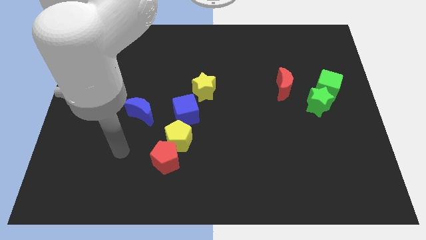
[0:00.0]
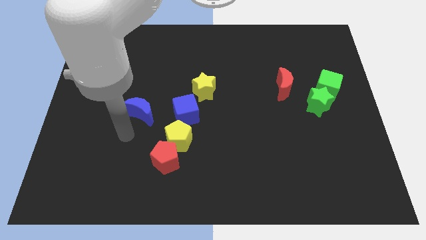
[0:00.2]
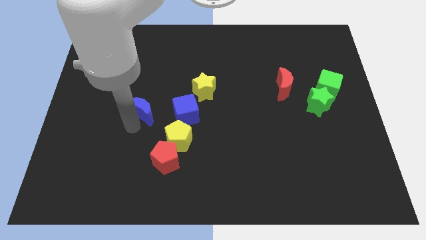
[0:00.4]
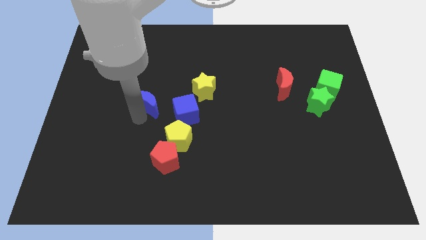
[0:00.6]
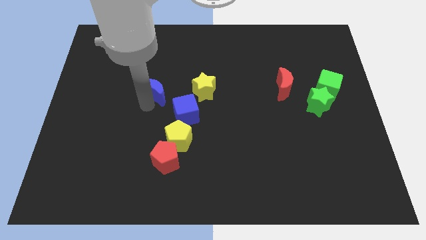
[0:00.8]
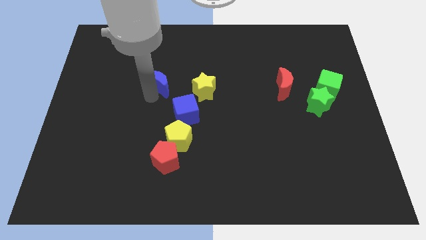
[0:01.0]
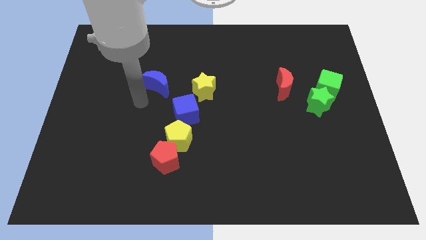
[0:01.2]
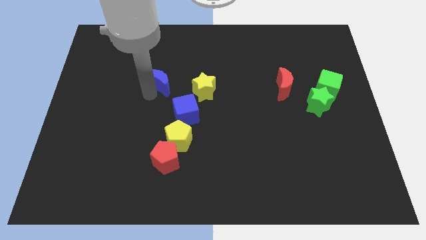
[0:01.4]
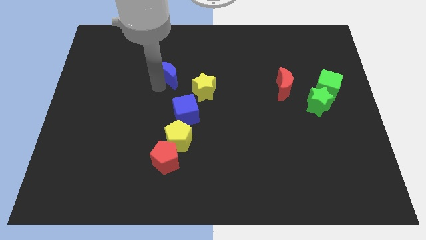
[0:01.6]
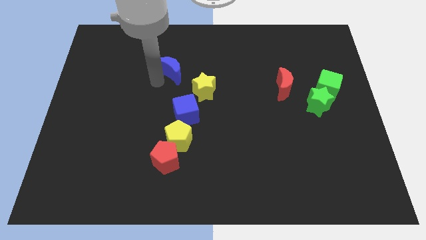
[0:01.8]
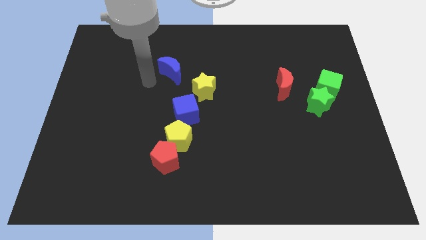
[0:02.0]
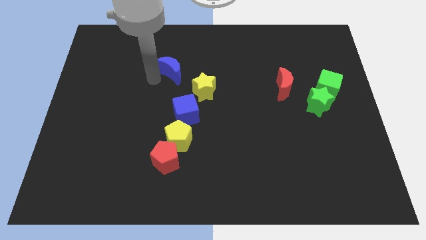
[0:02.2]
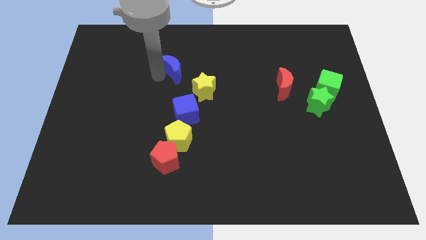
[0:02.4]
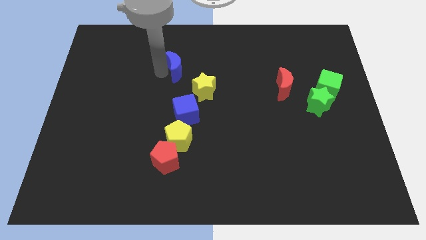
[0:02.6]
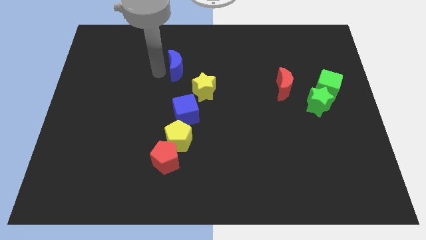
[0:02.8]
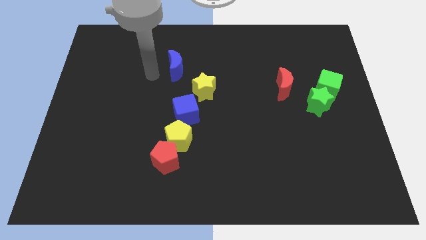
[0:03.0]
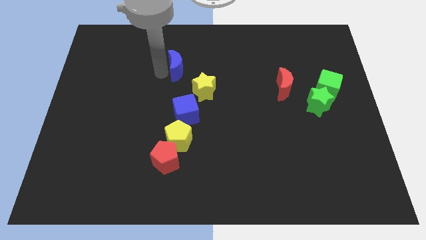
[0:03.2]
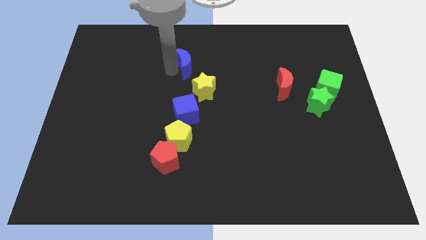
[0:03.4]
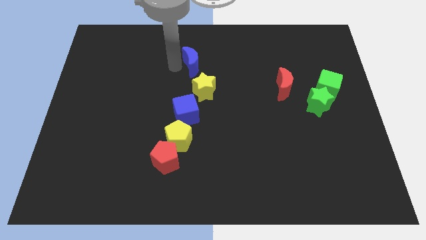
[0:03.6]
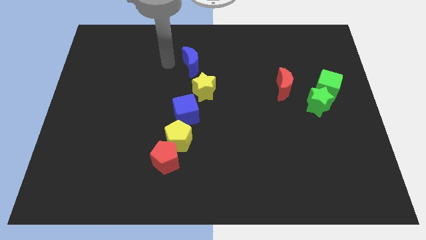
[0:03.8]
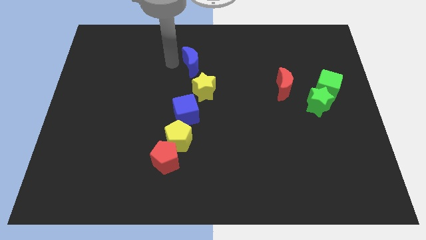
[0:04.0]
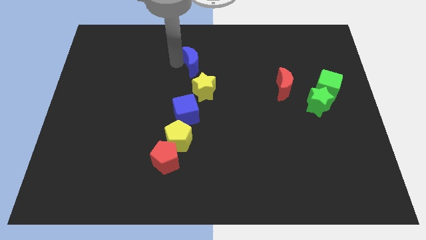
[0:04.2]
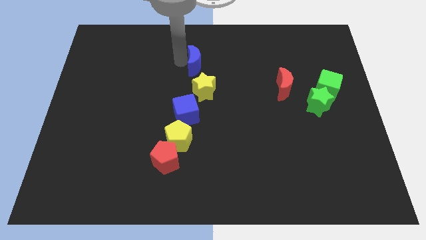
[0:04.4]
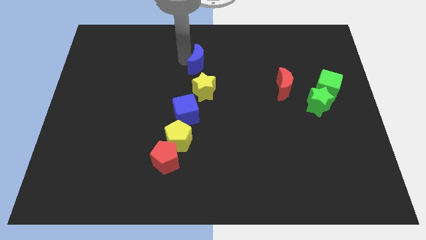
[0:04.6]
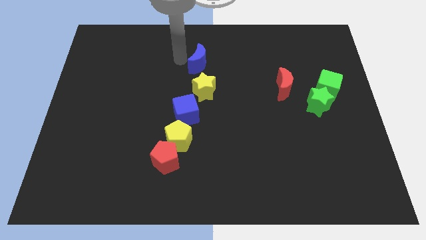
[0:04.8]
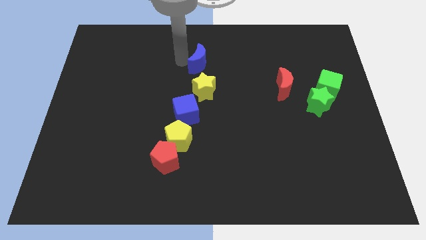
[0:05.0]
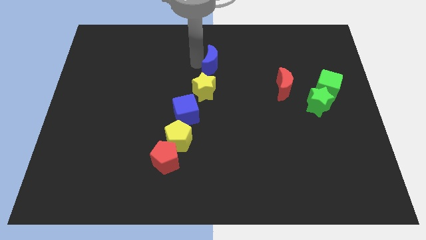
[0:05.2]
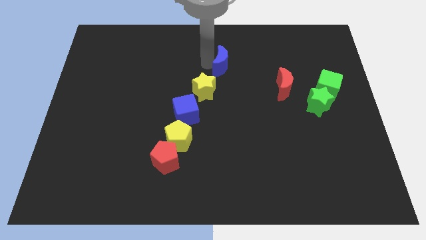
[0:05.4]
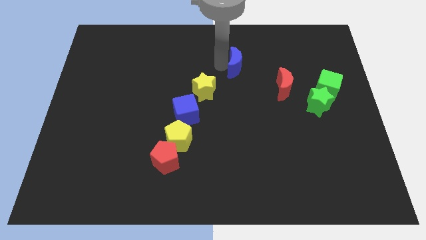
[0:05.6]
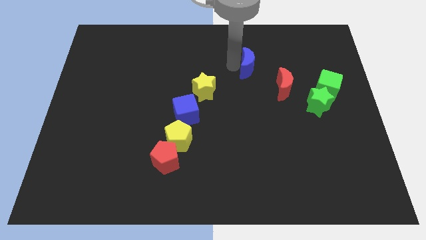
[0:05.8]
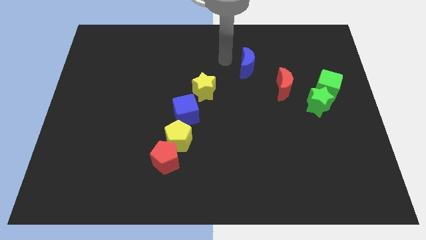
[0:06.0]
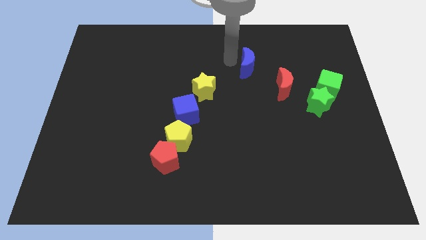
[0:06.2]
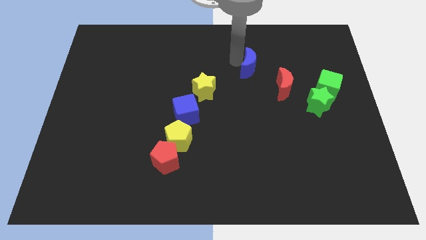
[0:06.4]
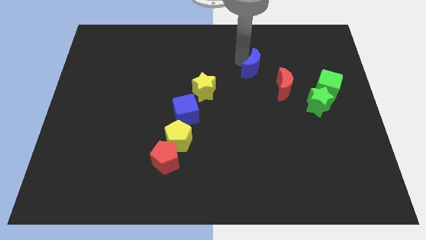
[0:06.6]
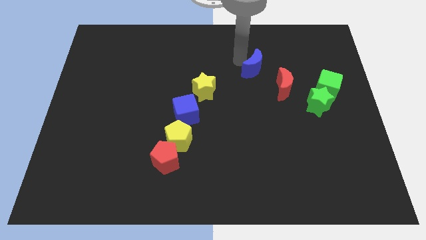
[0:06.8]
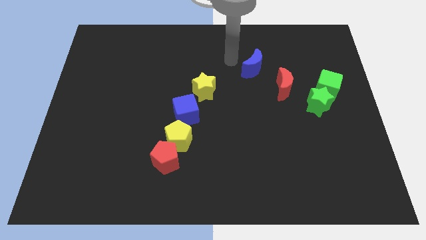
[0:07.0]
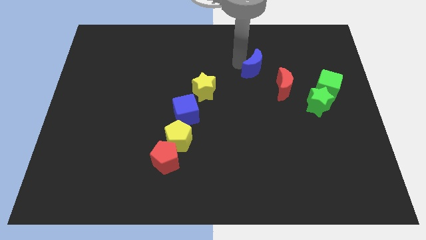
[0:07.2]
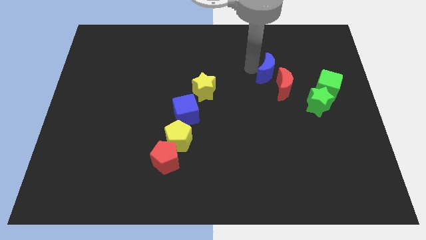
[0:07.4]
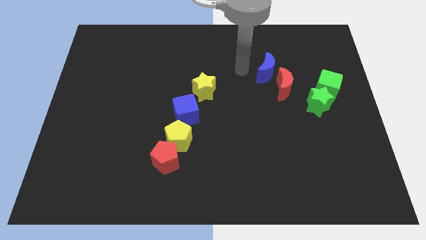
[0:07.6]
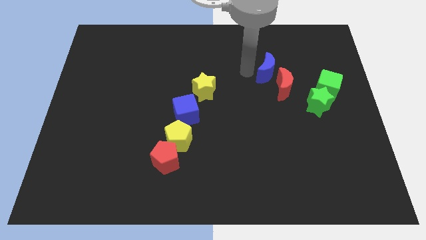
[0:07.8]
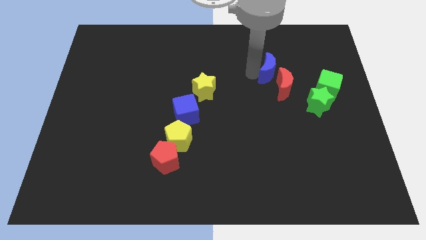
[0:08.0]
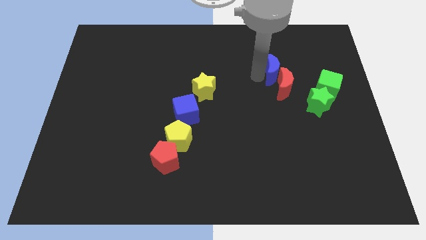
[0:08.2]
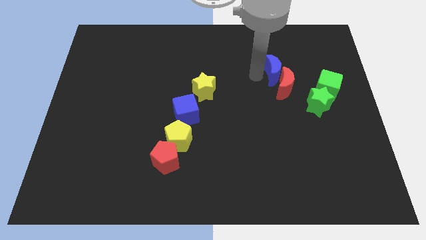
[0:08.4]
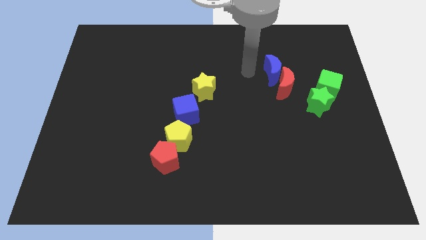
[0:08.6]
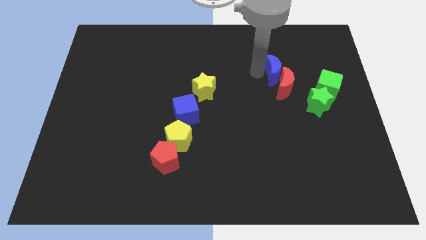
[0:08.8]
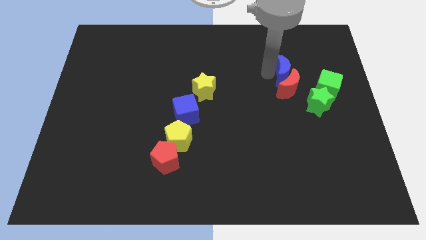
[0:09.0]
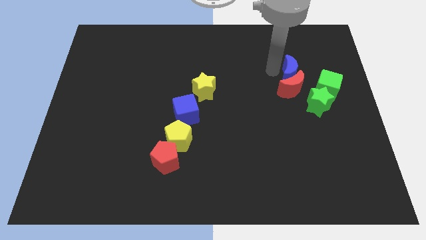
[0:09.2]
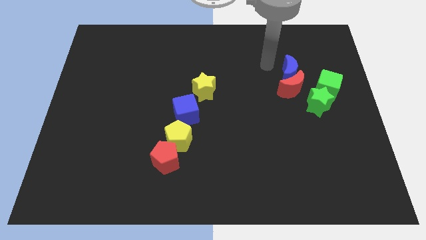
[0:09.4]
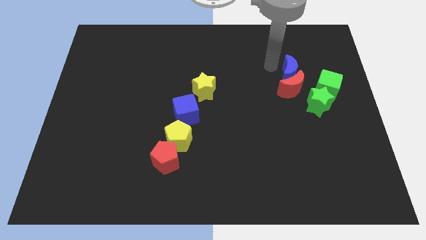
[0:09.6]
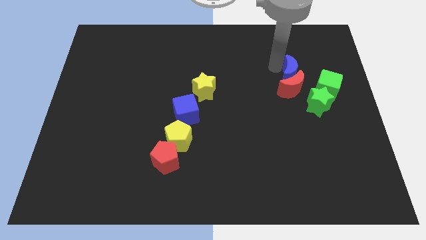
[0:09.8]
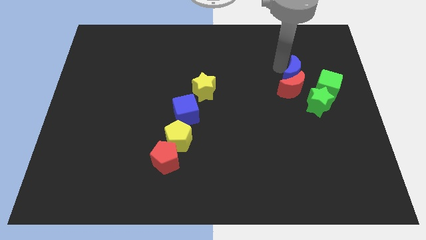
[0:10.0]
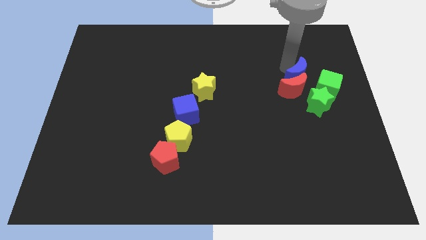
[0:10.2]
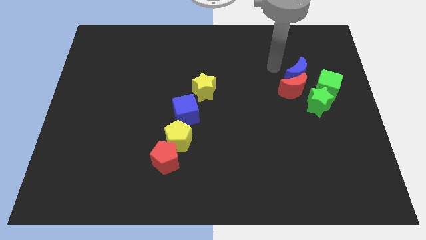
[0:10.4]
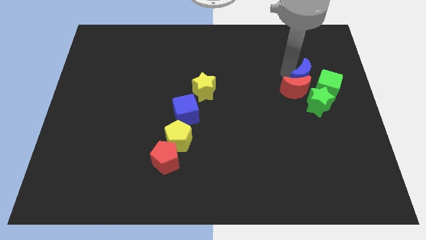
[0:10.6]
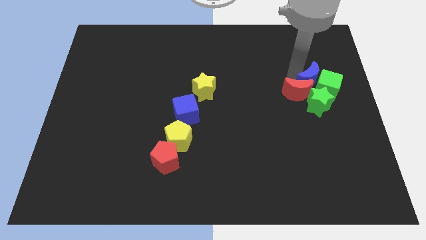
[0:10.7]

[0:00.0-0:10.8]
put the blue moon towards the green cube

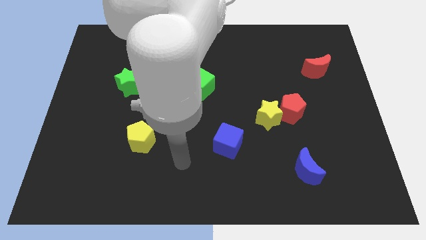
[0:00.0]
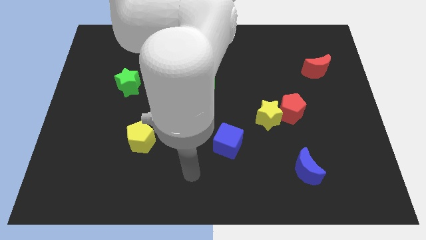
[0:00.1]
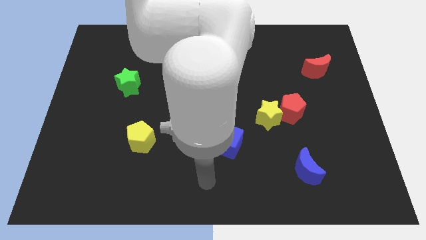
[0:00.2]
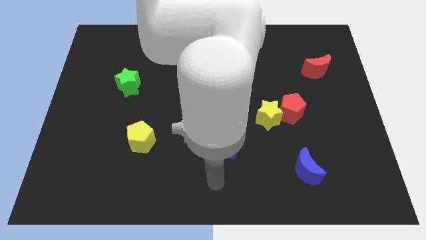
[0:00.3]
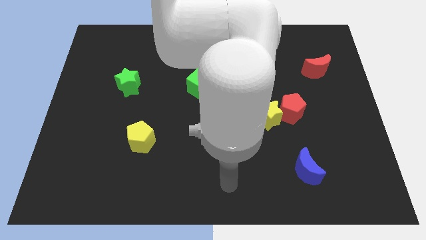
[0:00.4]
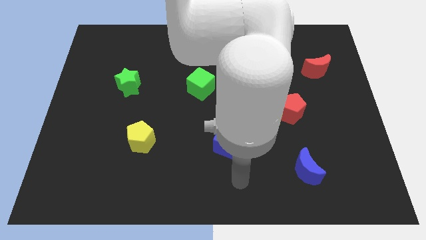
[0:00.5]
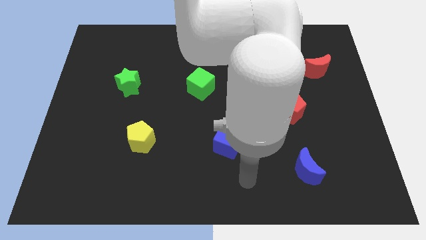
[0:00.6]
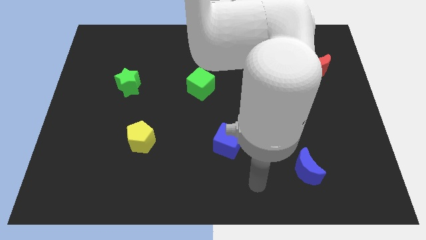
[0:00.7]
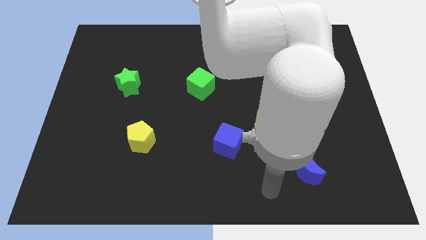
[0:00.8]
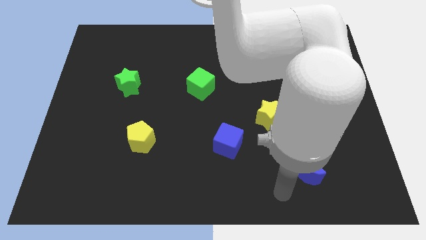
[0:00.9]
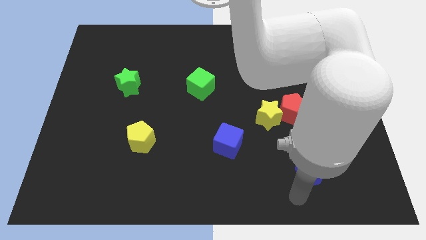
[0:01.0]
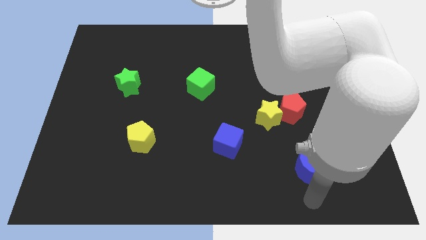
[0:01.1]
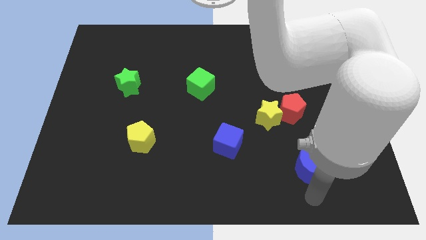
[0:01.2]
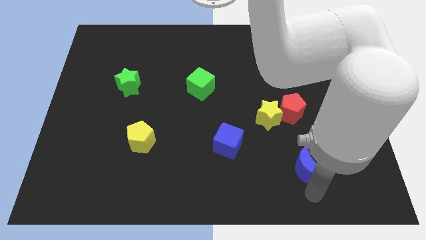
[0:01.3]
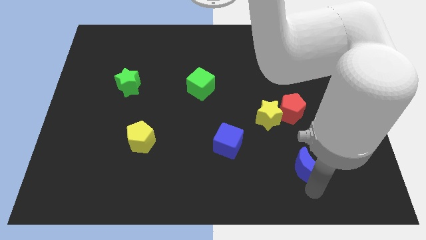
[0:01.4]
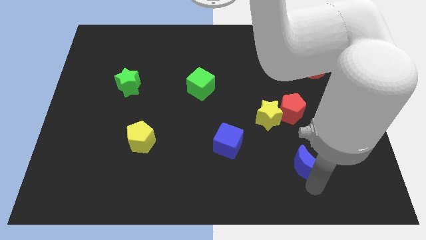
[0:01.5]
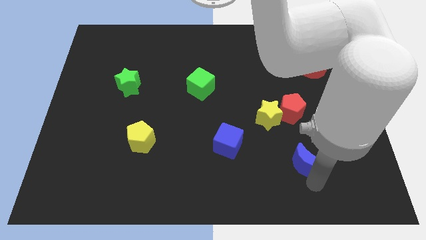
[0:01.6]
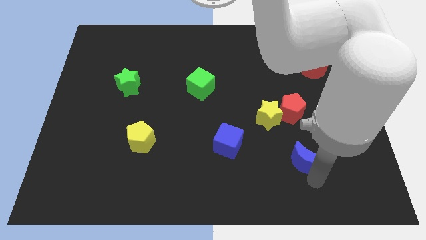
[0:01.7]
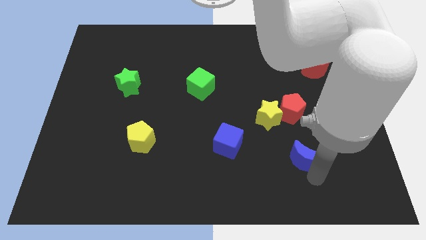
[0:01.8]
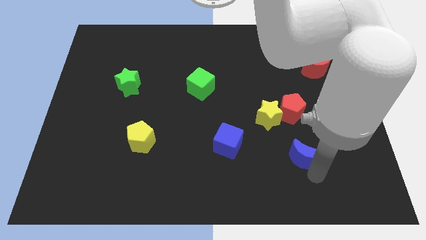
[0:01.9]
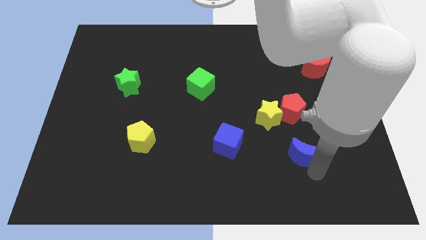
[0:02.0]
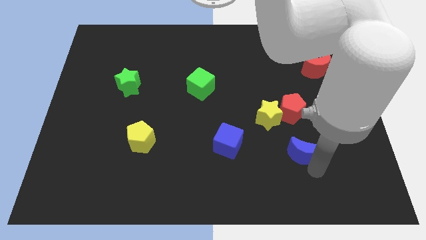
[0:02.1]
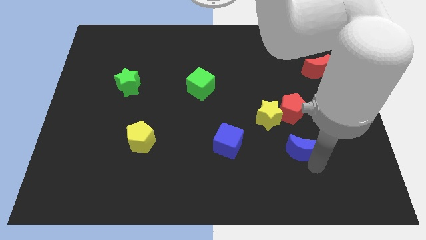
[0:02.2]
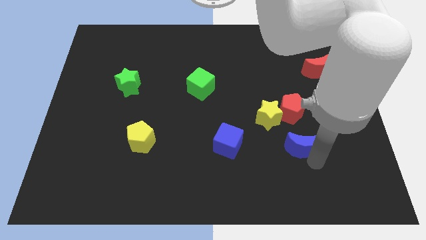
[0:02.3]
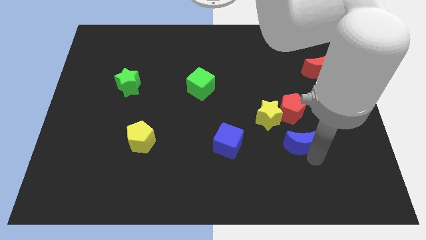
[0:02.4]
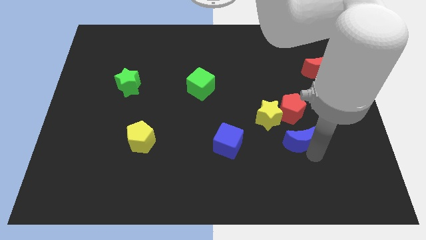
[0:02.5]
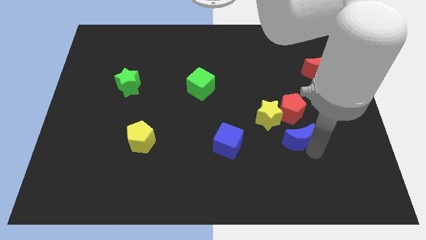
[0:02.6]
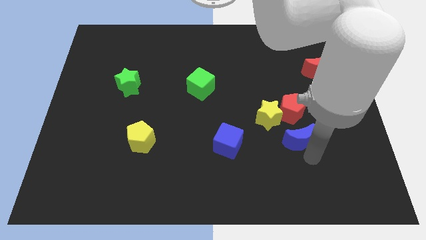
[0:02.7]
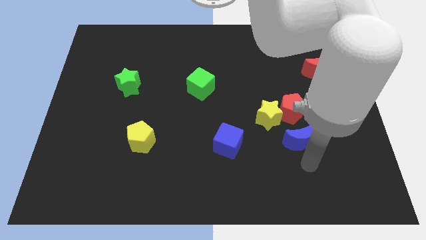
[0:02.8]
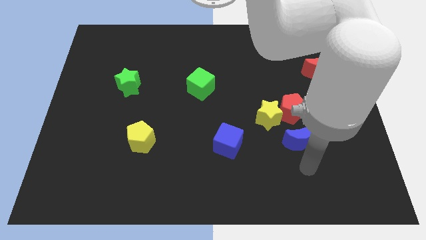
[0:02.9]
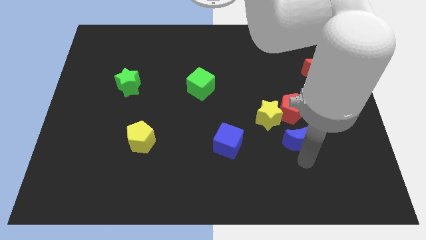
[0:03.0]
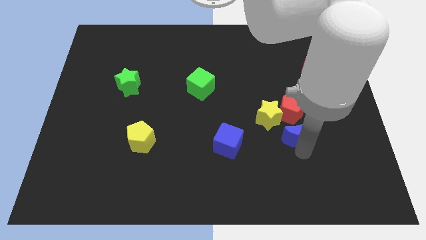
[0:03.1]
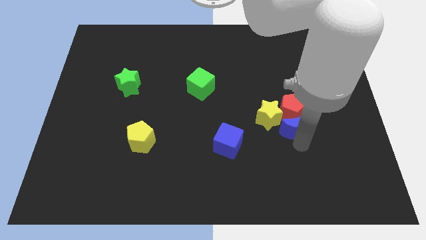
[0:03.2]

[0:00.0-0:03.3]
move the blue moon next to the red pentagon
